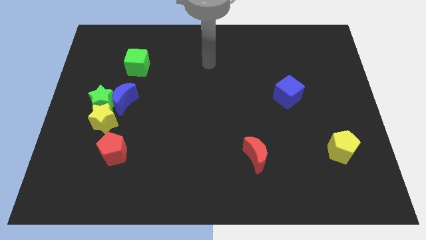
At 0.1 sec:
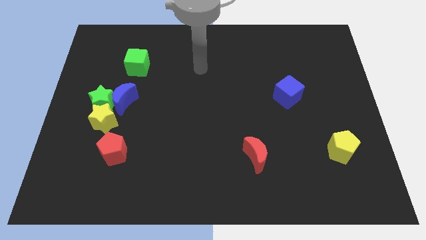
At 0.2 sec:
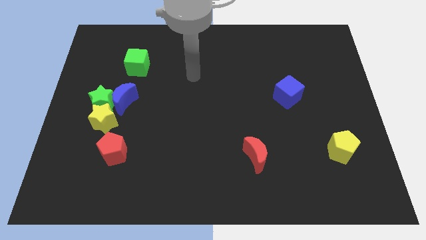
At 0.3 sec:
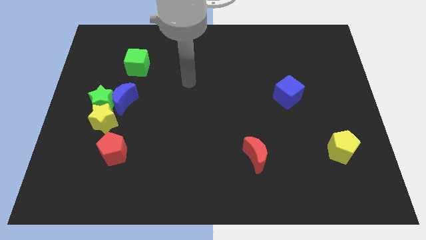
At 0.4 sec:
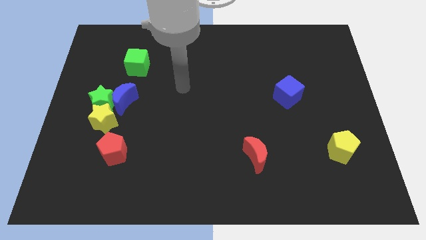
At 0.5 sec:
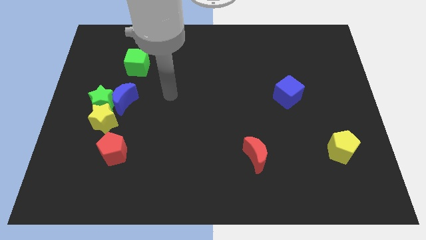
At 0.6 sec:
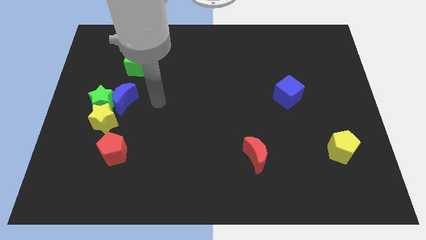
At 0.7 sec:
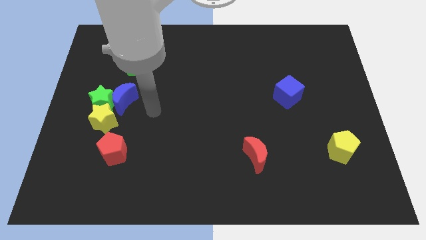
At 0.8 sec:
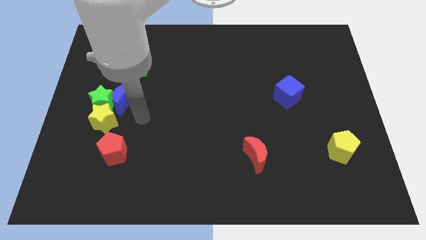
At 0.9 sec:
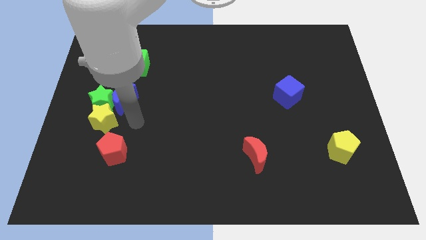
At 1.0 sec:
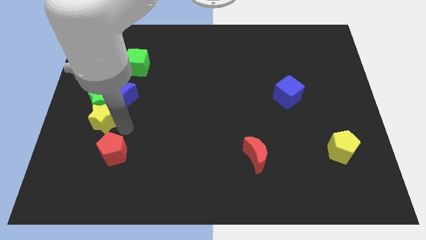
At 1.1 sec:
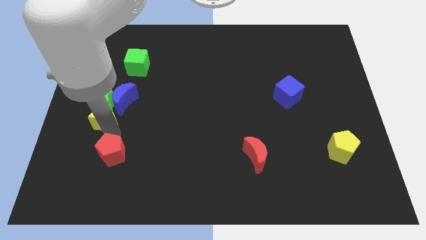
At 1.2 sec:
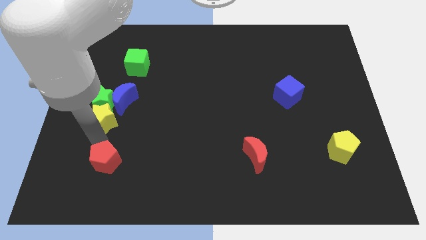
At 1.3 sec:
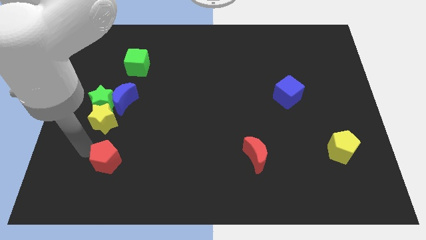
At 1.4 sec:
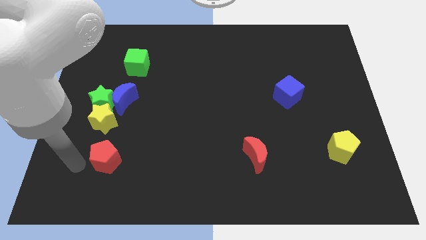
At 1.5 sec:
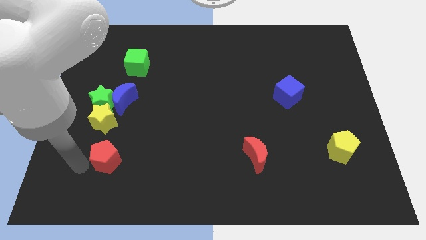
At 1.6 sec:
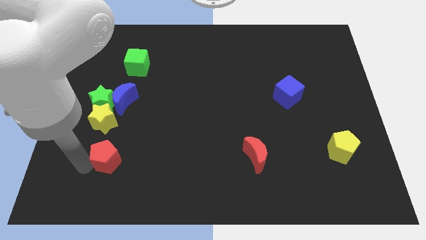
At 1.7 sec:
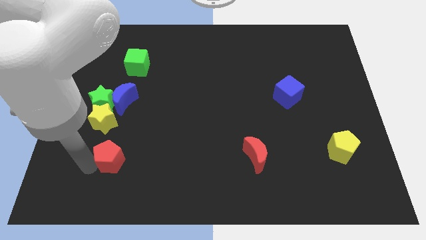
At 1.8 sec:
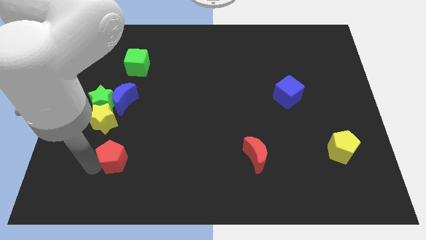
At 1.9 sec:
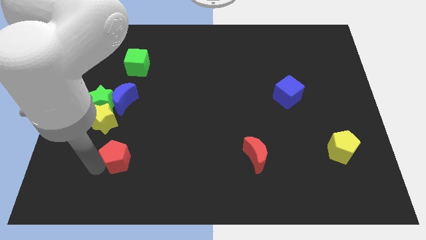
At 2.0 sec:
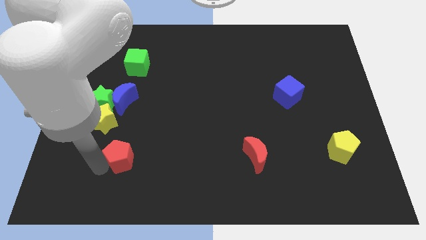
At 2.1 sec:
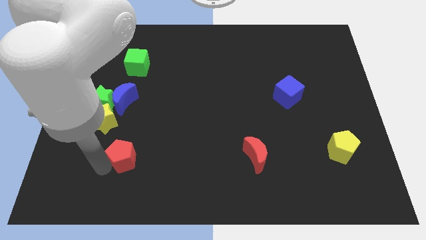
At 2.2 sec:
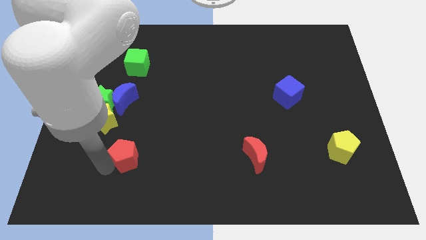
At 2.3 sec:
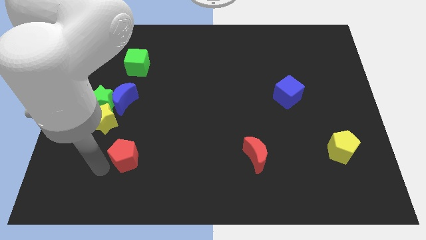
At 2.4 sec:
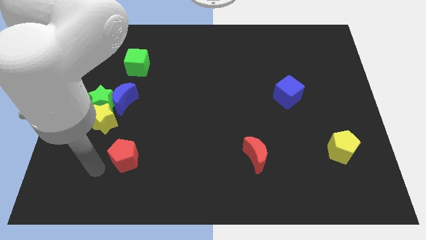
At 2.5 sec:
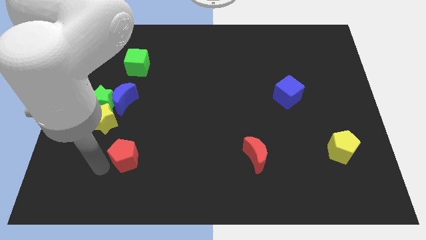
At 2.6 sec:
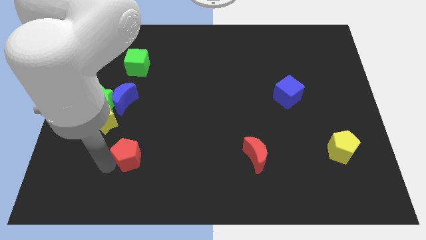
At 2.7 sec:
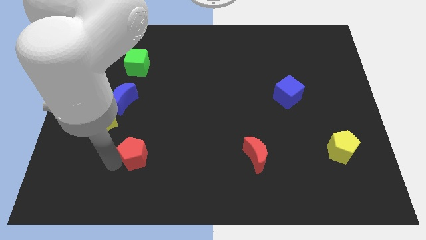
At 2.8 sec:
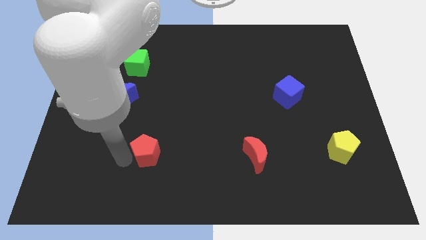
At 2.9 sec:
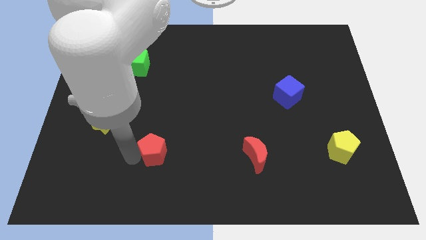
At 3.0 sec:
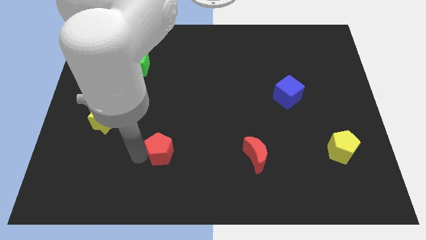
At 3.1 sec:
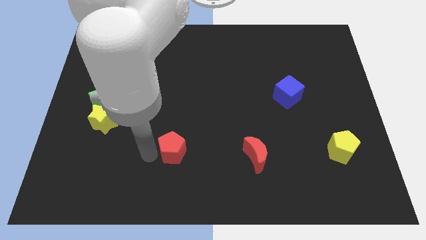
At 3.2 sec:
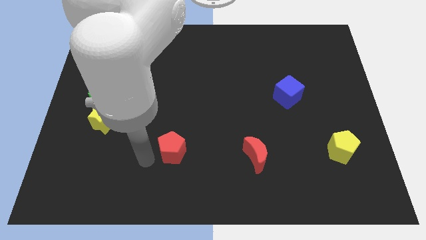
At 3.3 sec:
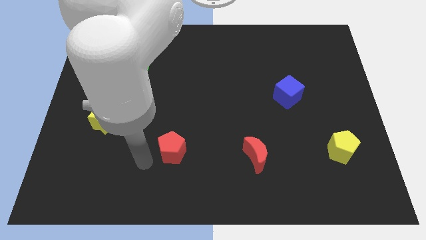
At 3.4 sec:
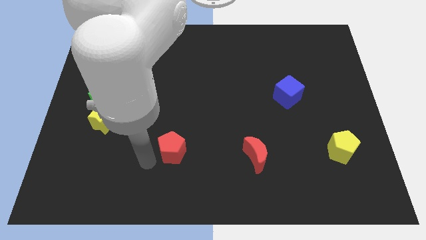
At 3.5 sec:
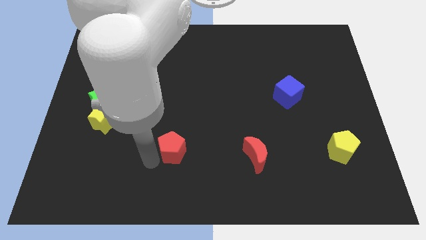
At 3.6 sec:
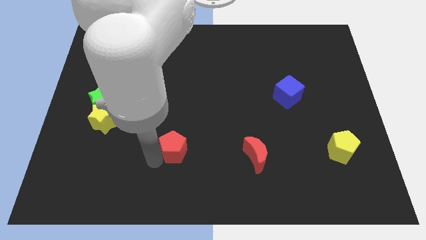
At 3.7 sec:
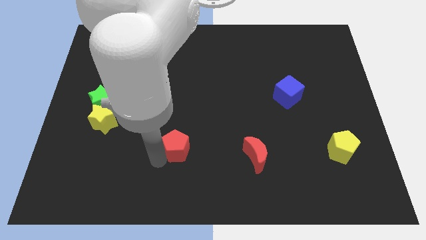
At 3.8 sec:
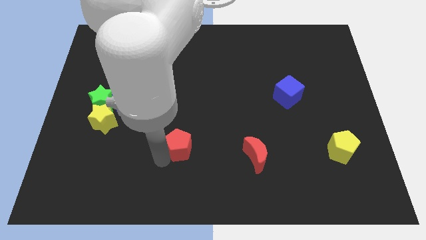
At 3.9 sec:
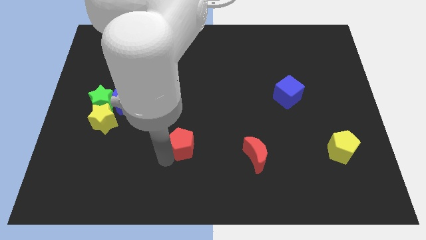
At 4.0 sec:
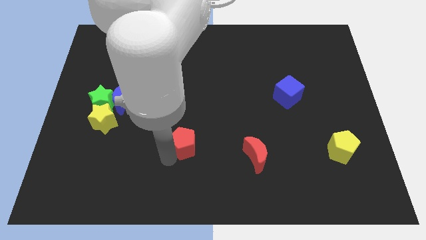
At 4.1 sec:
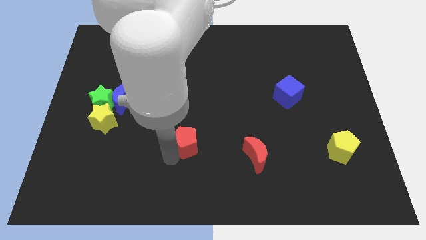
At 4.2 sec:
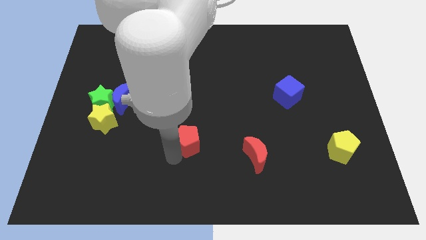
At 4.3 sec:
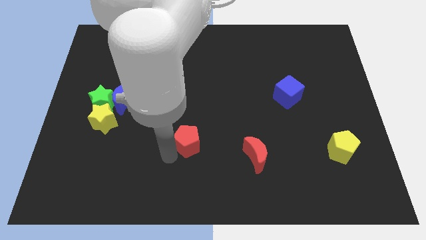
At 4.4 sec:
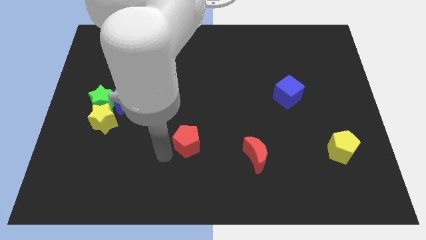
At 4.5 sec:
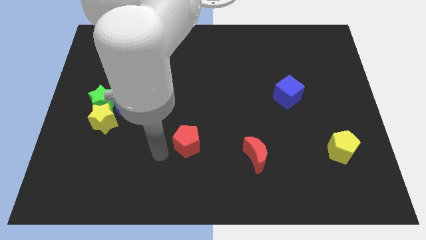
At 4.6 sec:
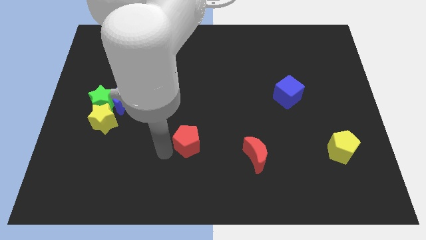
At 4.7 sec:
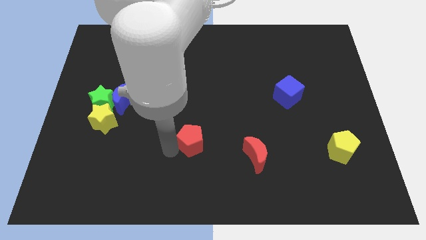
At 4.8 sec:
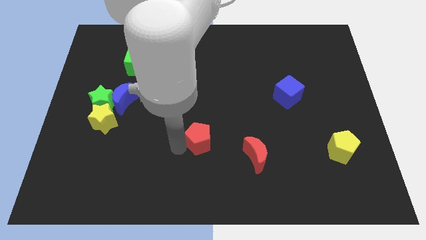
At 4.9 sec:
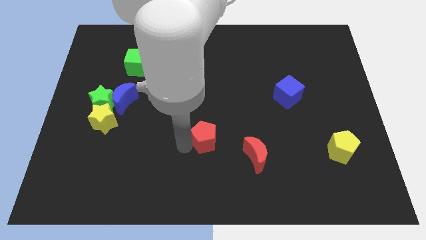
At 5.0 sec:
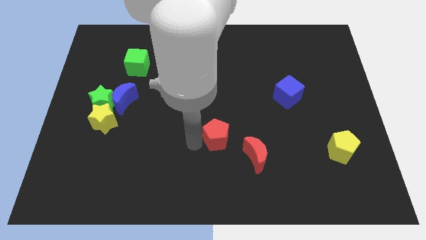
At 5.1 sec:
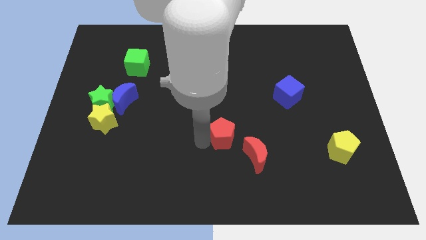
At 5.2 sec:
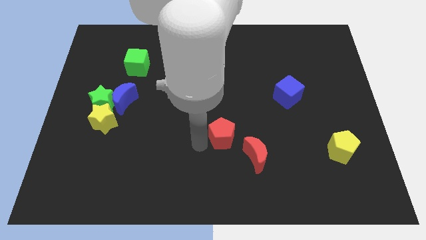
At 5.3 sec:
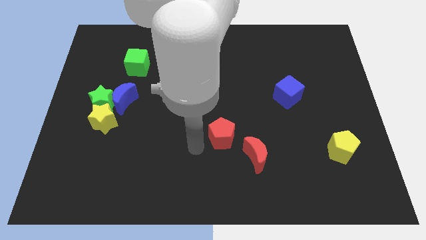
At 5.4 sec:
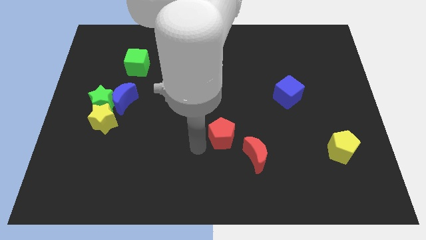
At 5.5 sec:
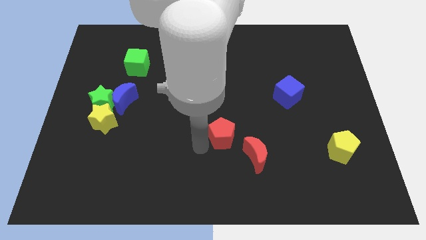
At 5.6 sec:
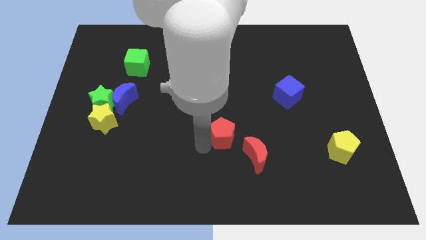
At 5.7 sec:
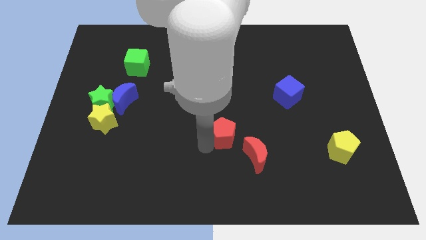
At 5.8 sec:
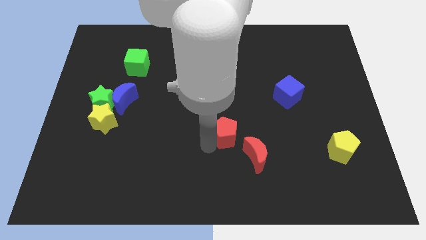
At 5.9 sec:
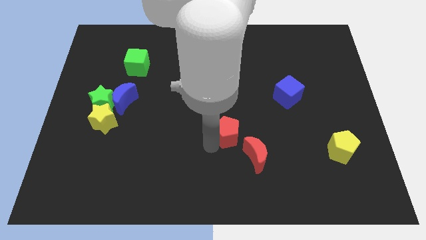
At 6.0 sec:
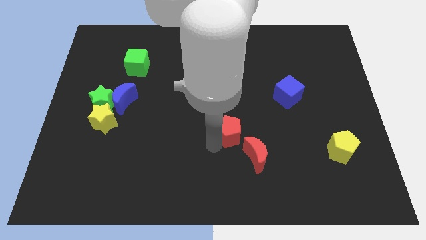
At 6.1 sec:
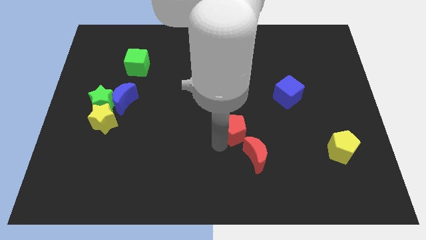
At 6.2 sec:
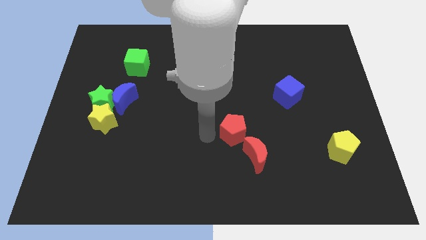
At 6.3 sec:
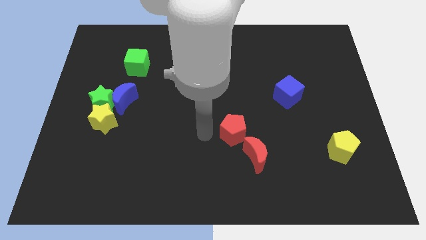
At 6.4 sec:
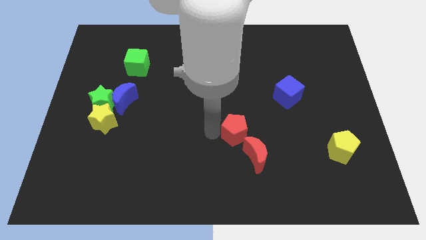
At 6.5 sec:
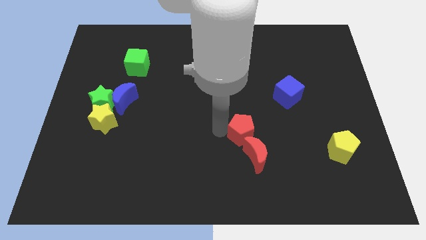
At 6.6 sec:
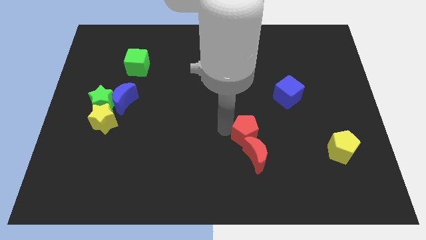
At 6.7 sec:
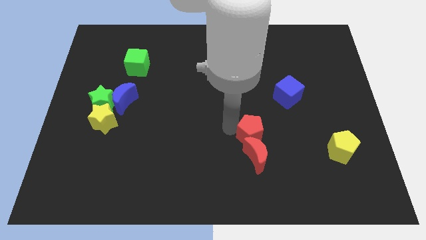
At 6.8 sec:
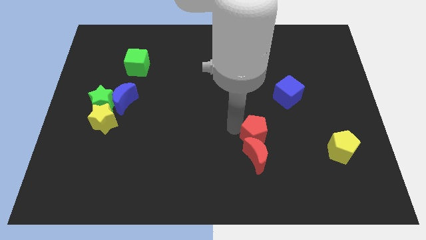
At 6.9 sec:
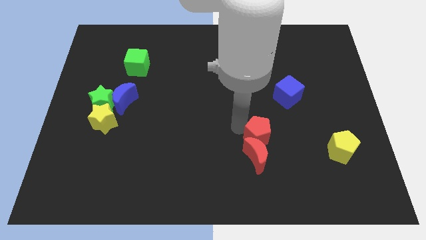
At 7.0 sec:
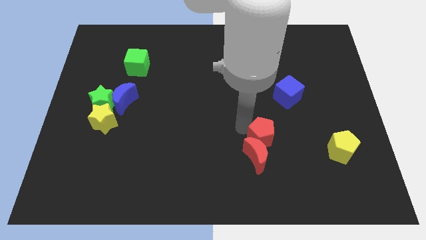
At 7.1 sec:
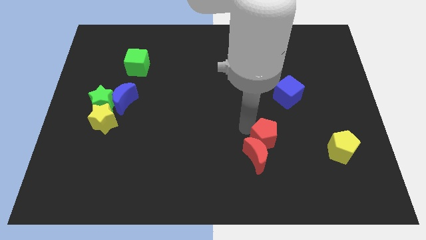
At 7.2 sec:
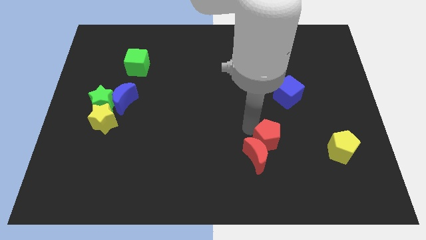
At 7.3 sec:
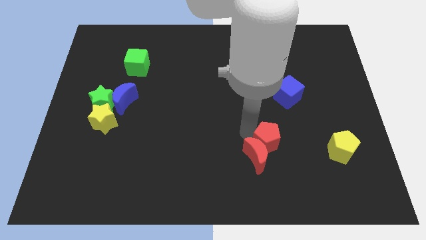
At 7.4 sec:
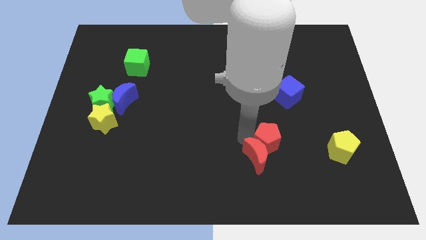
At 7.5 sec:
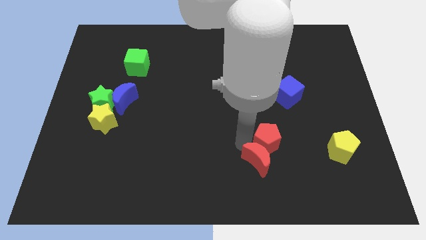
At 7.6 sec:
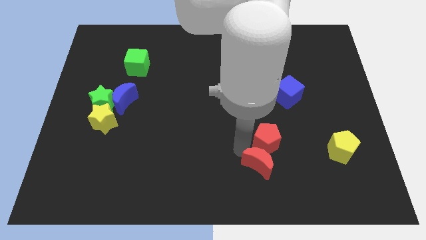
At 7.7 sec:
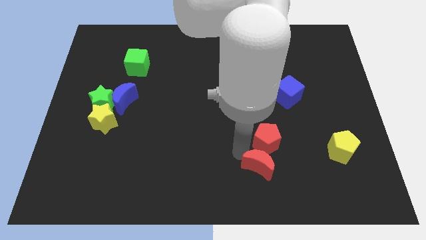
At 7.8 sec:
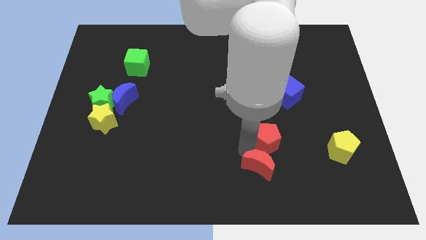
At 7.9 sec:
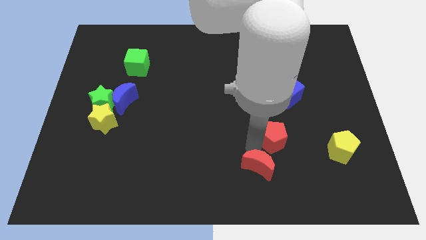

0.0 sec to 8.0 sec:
move the red pentagon below the blue cube
